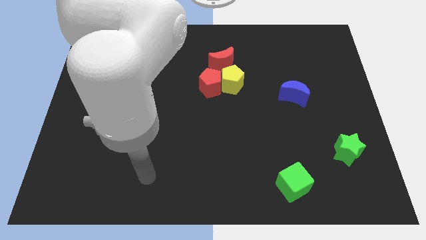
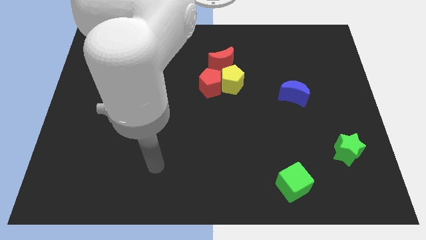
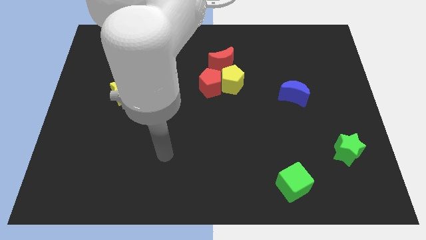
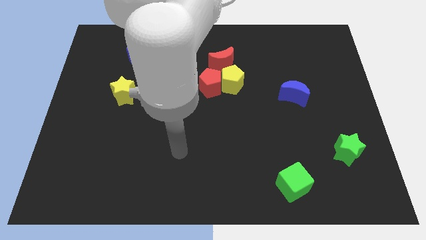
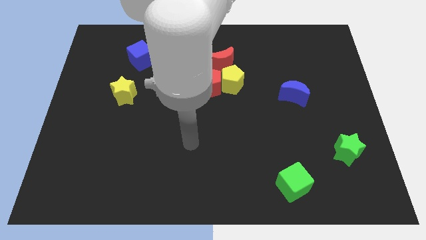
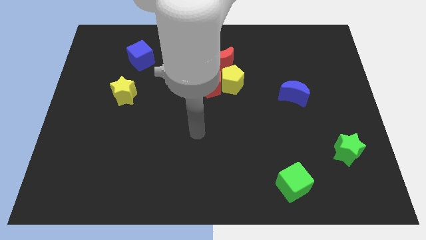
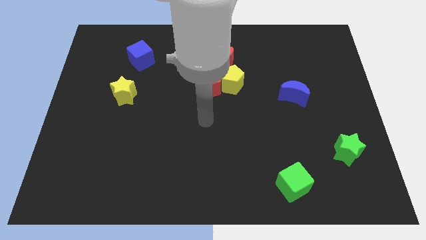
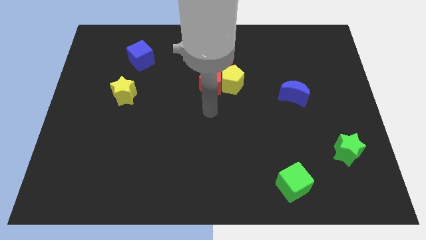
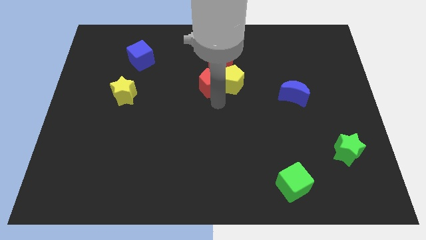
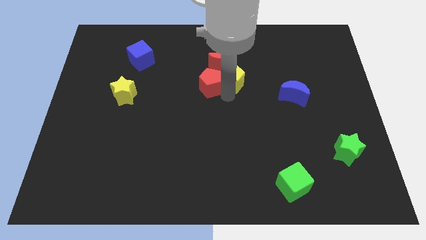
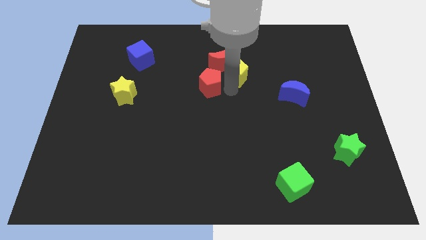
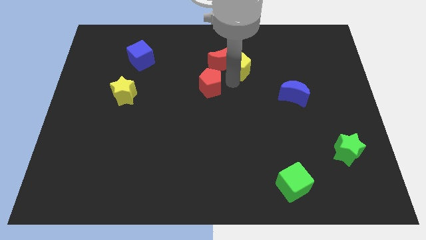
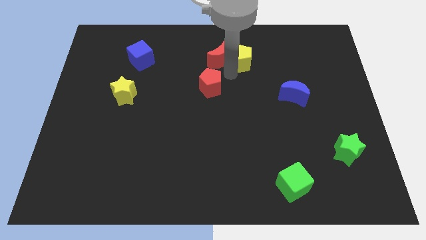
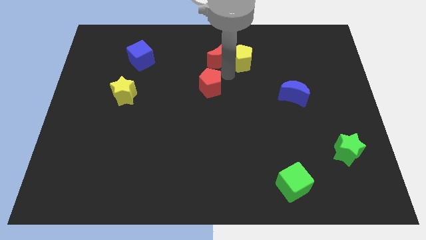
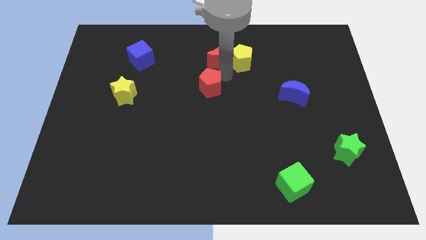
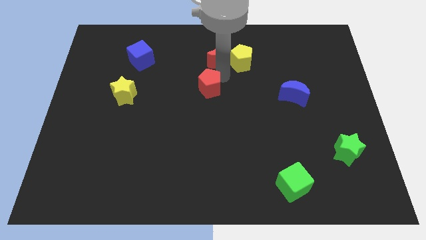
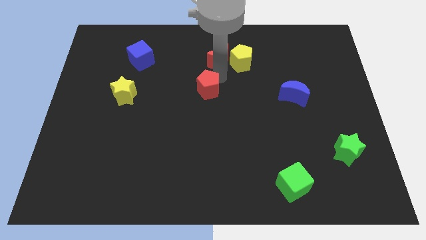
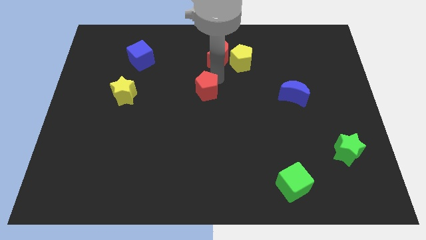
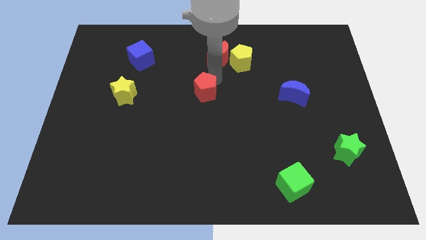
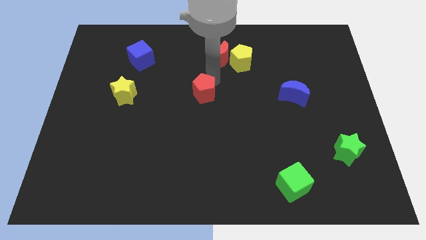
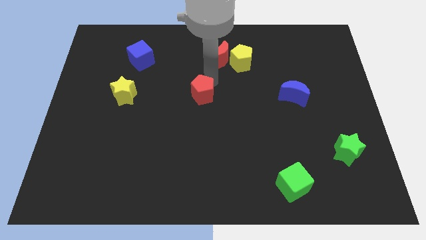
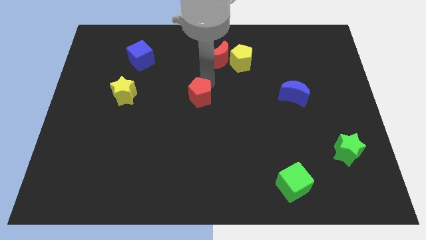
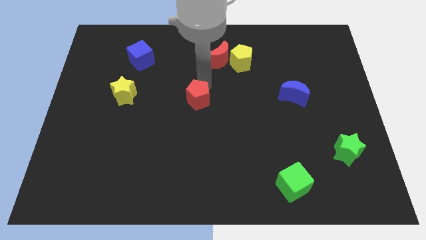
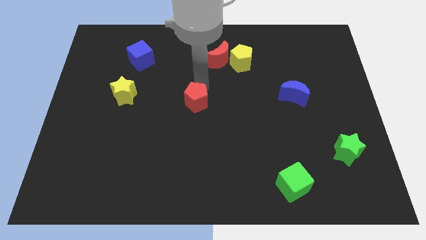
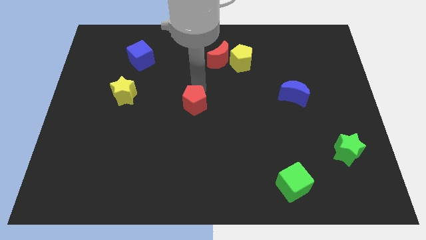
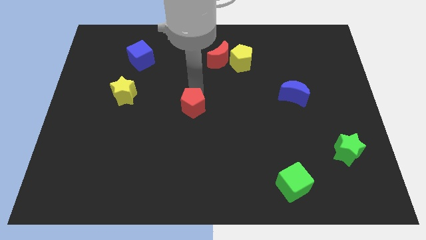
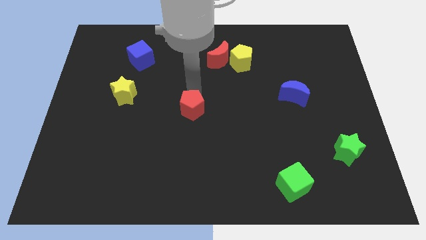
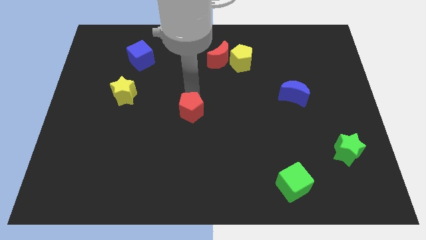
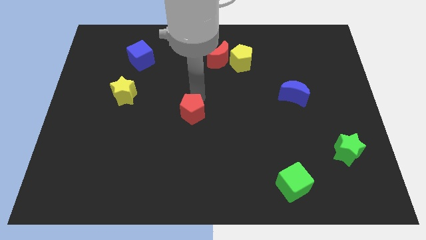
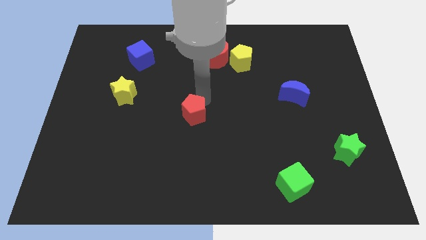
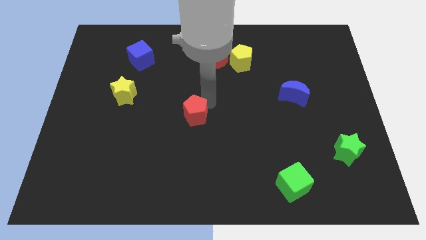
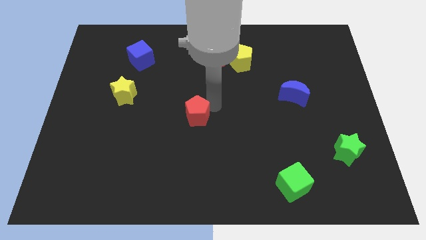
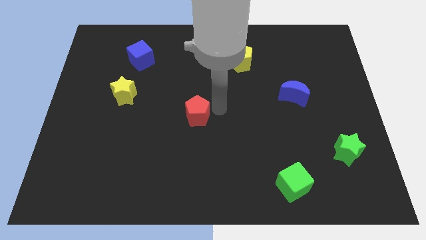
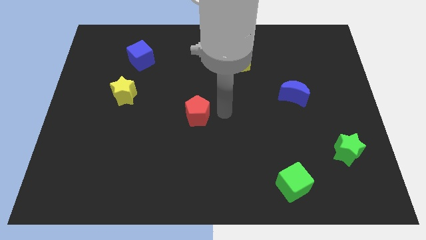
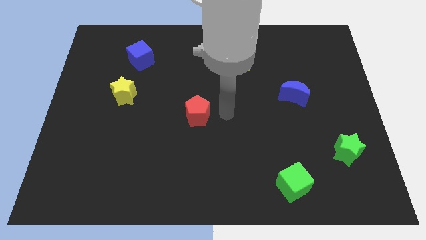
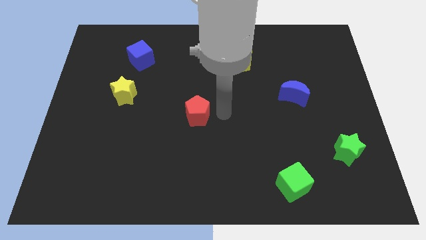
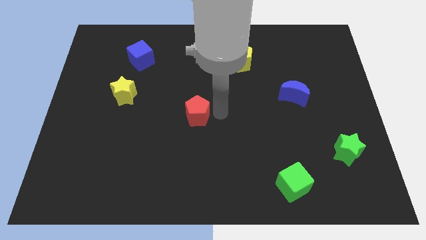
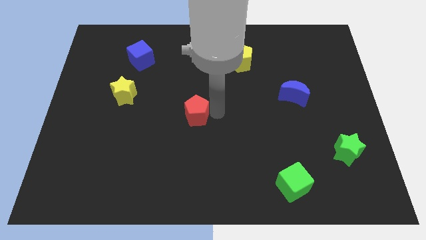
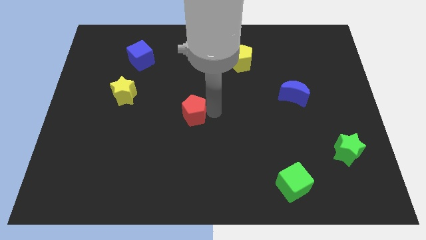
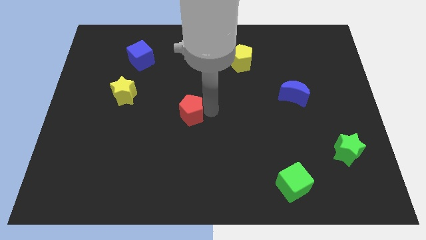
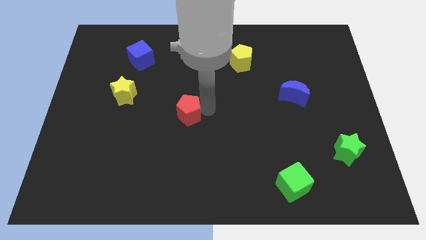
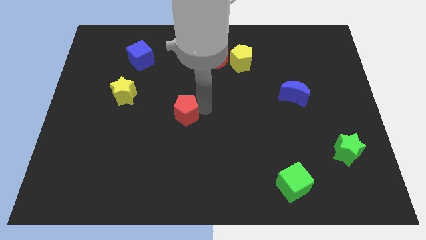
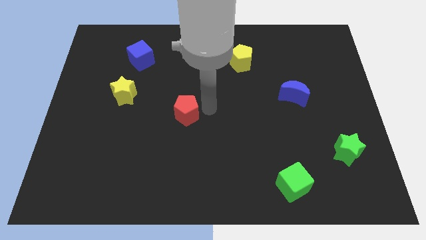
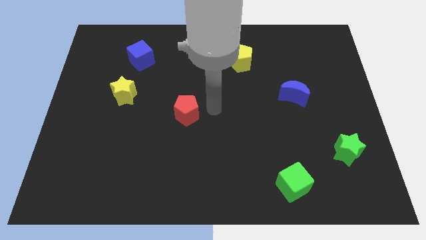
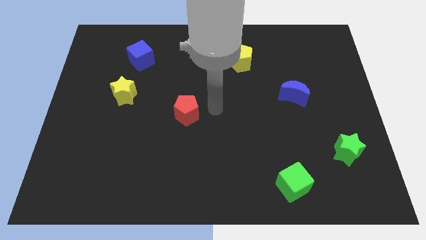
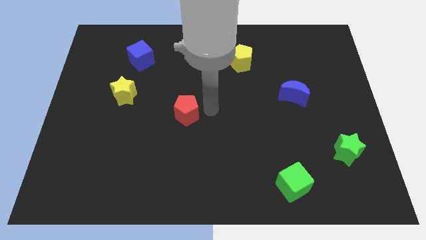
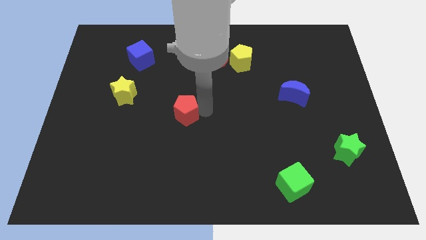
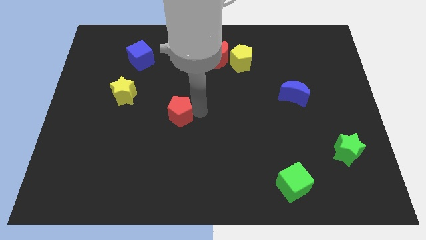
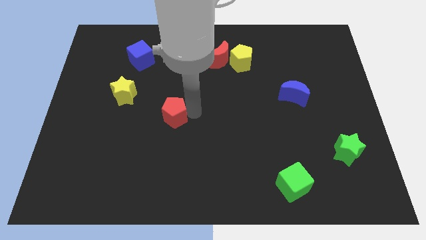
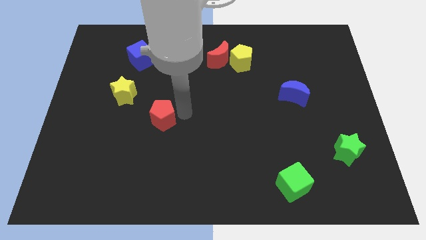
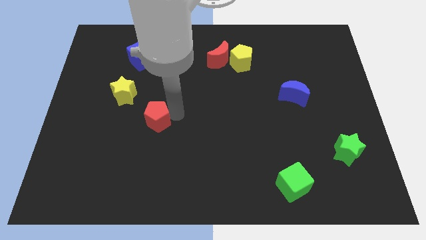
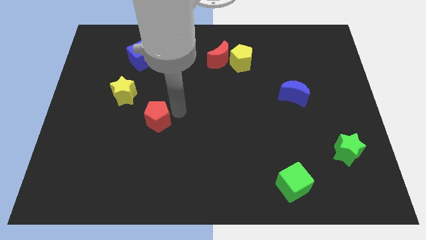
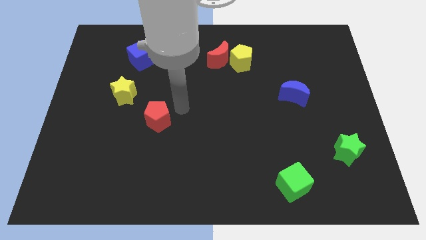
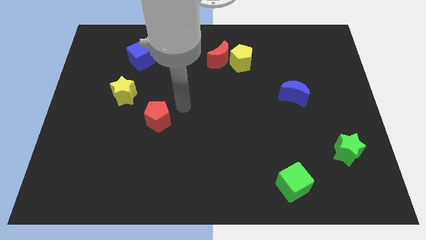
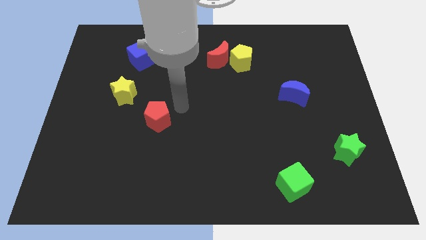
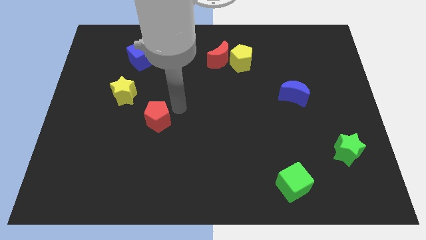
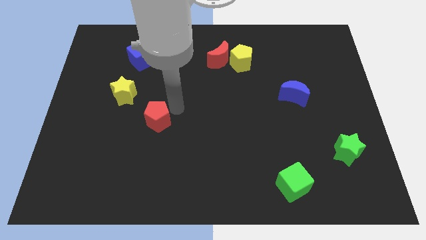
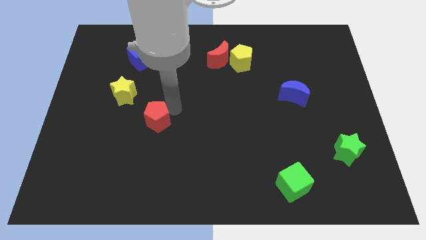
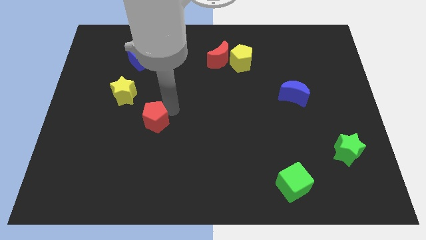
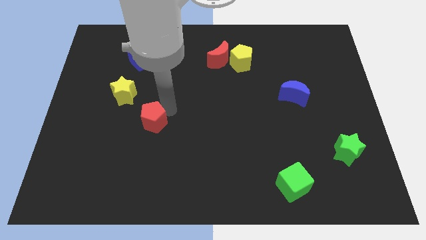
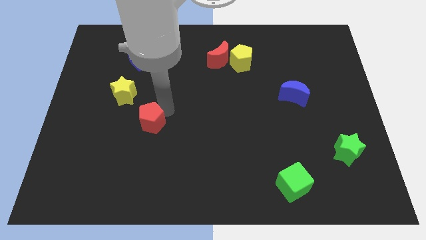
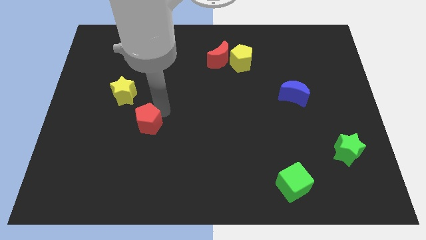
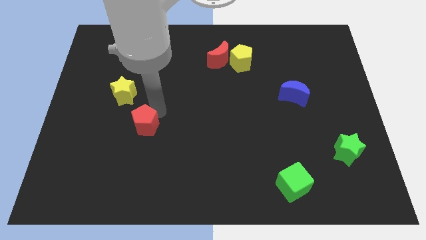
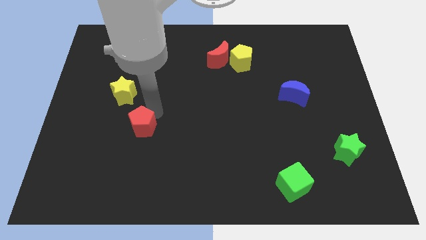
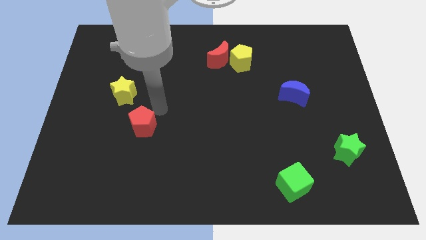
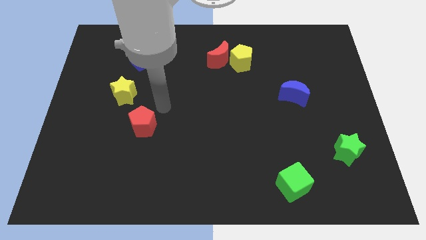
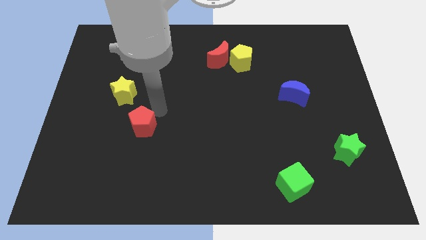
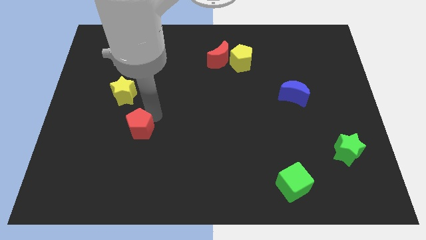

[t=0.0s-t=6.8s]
push the red pentagon downwards and to the left diagonally

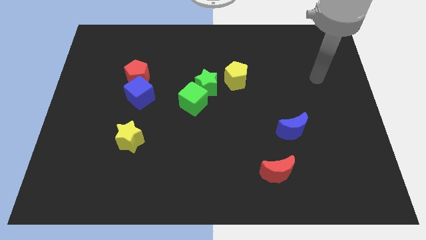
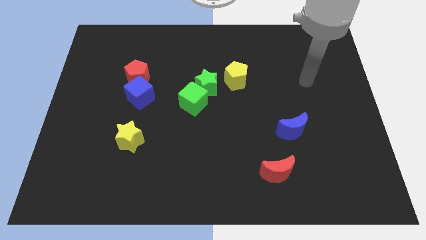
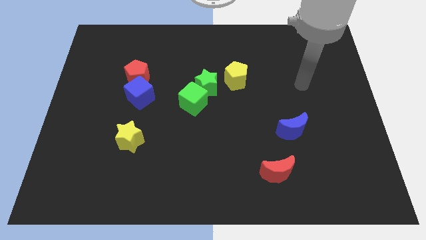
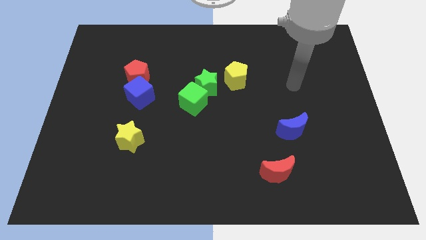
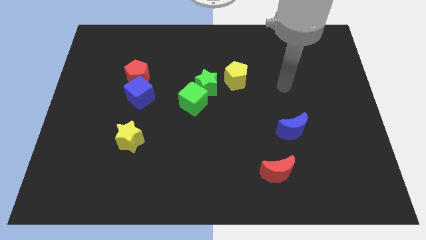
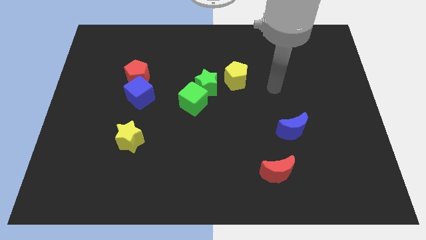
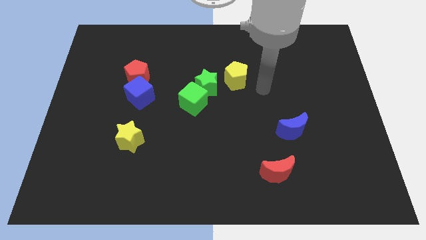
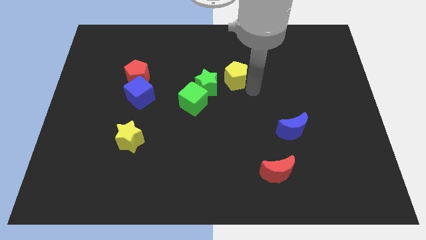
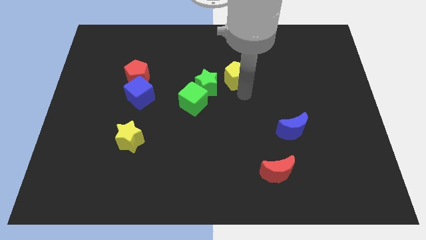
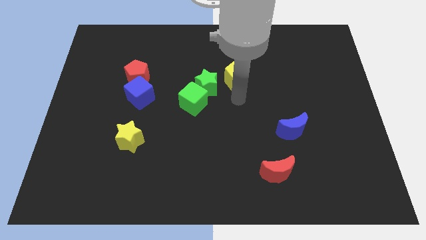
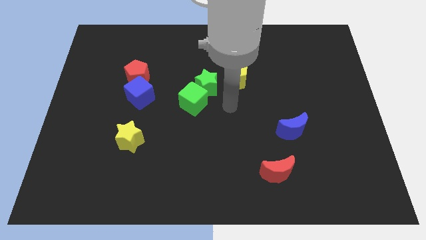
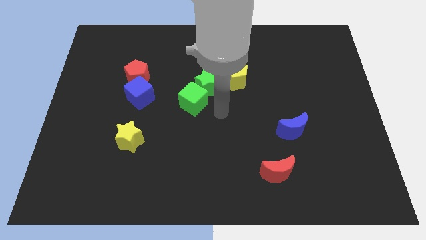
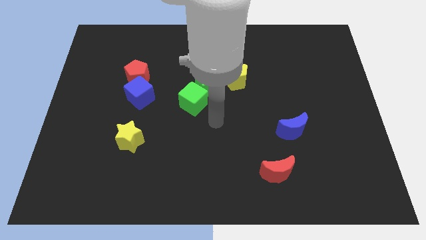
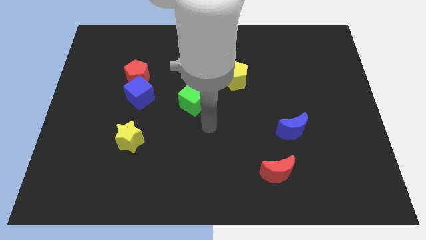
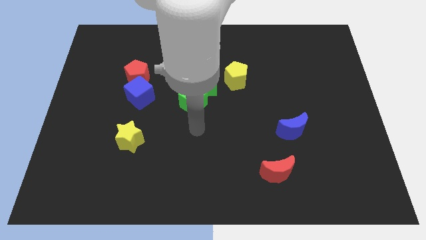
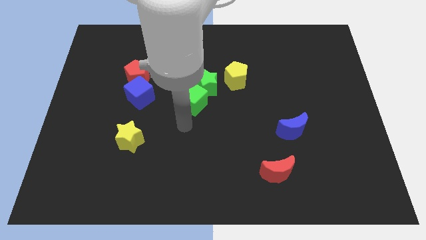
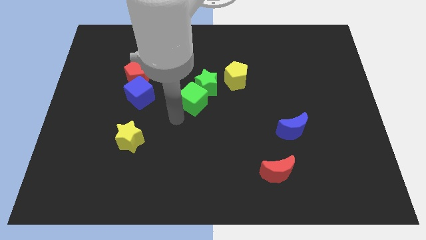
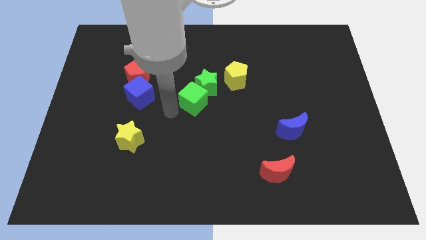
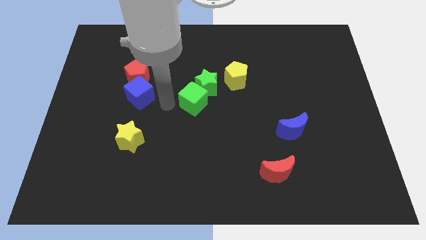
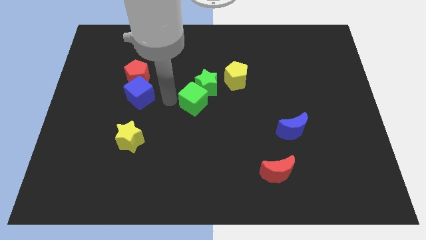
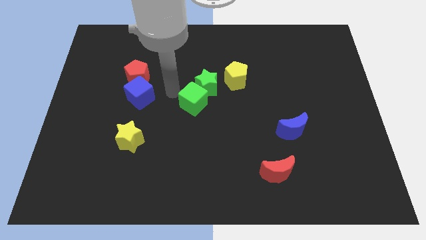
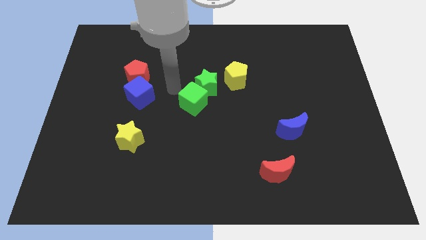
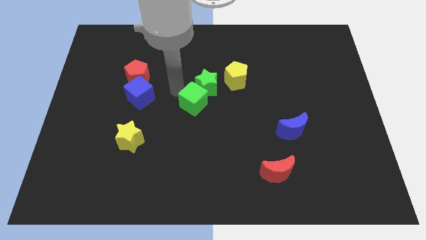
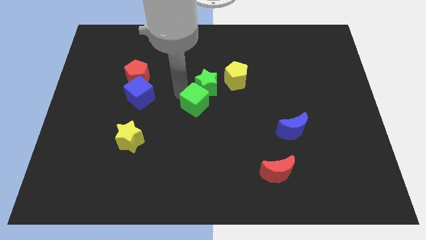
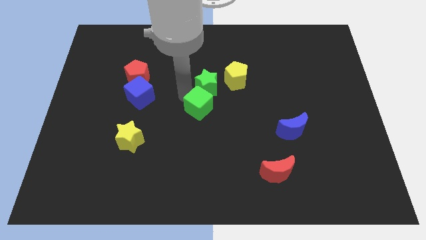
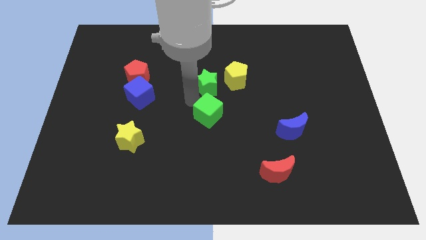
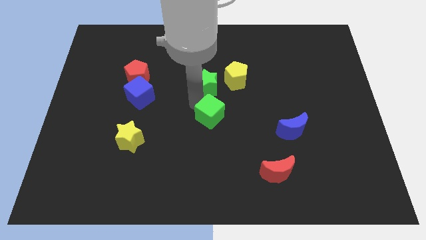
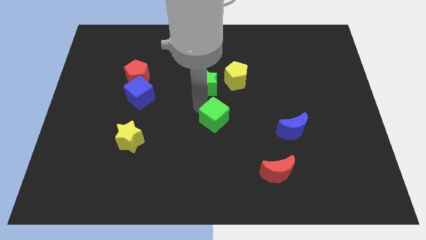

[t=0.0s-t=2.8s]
move the green cube diagonally downwards and to the right somewhat
